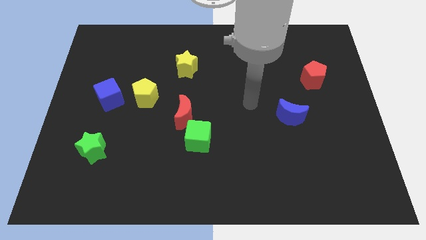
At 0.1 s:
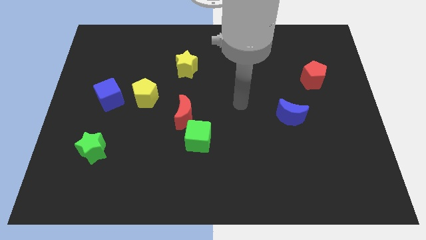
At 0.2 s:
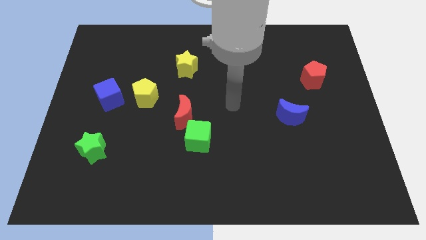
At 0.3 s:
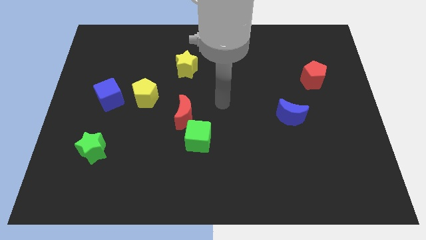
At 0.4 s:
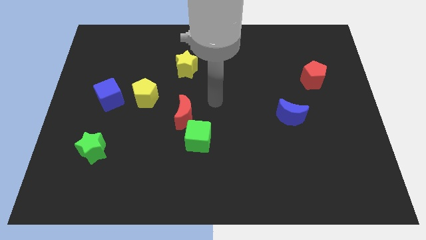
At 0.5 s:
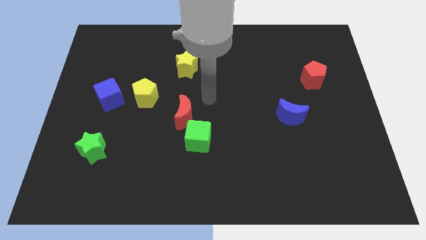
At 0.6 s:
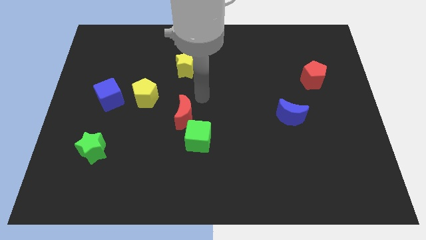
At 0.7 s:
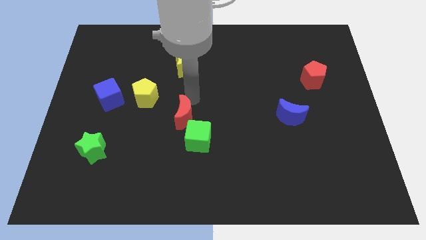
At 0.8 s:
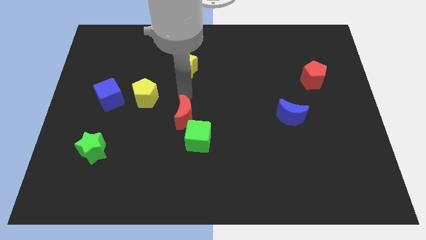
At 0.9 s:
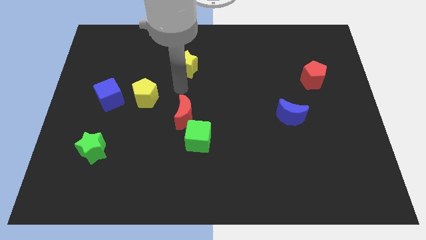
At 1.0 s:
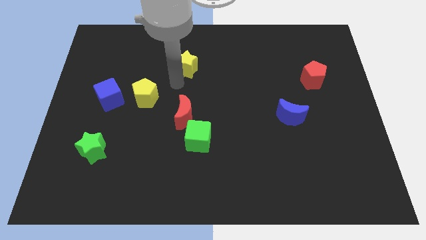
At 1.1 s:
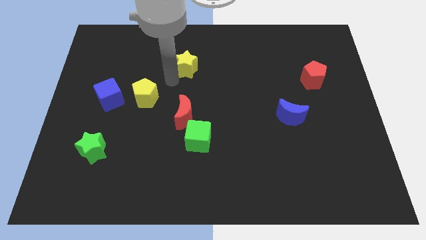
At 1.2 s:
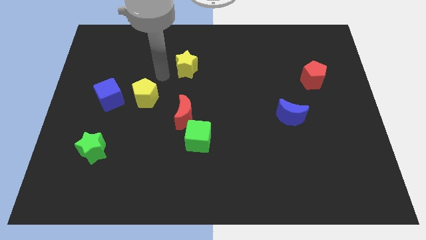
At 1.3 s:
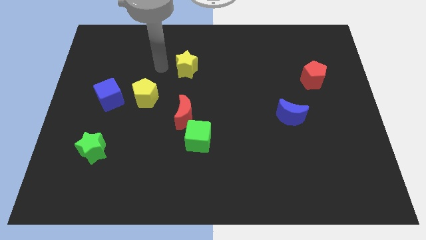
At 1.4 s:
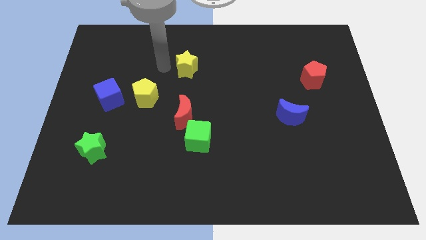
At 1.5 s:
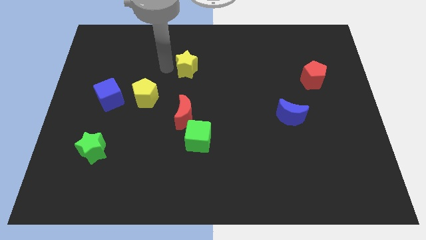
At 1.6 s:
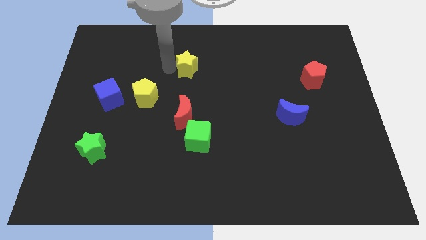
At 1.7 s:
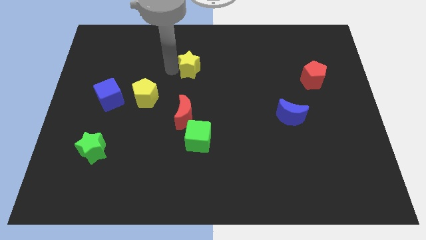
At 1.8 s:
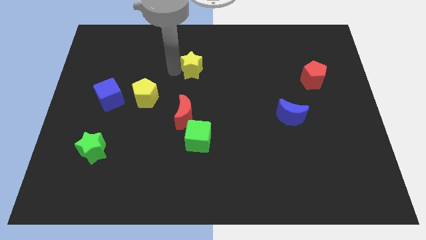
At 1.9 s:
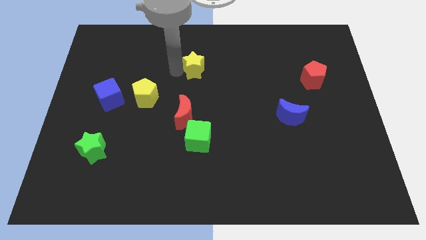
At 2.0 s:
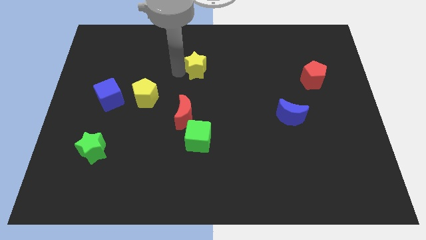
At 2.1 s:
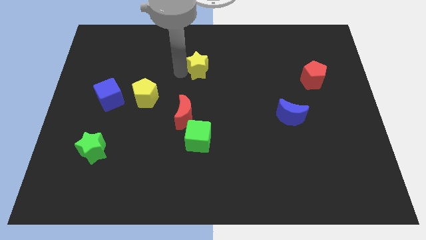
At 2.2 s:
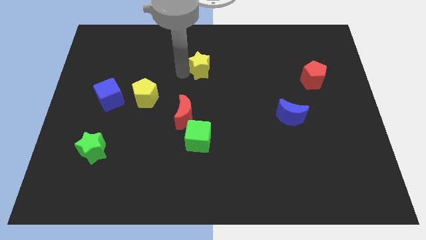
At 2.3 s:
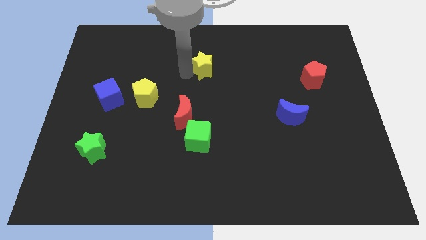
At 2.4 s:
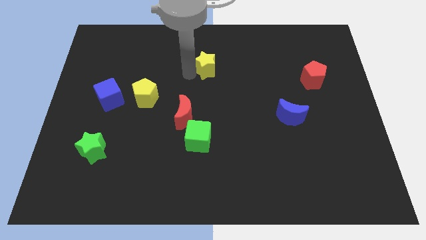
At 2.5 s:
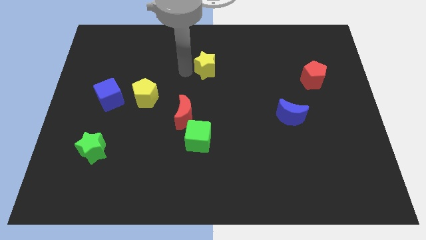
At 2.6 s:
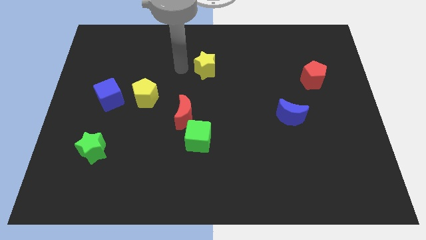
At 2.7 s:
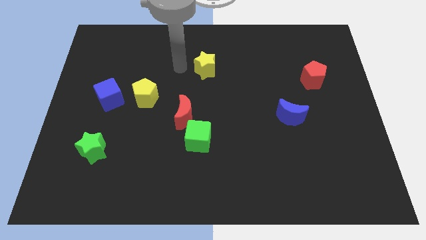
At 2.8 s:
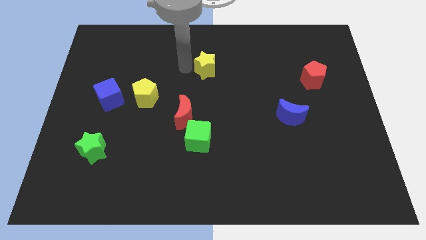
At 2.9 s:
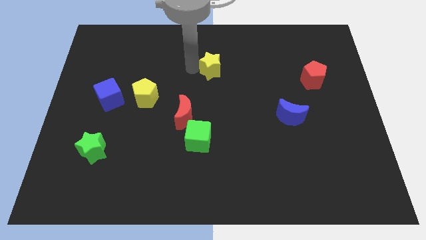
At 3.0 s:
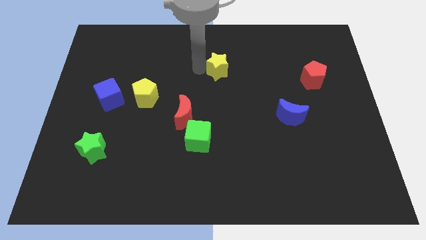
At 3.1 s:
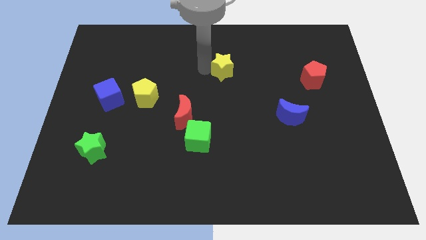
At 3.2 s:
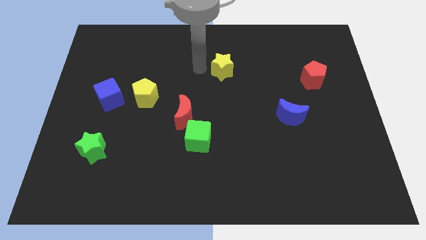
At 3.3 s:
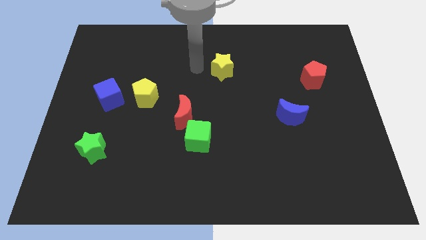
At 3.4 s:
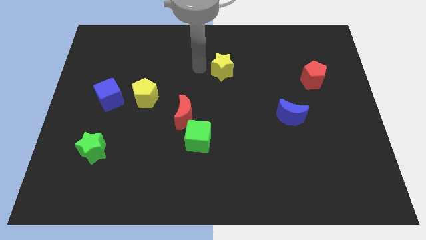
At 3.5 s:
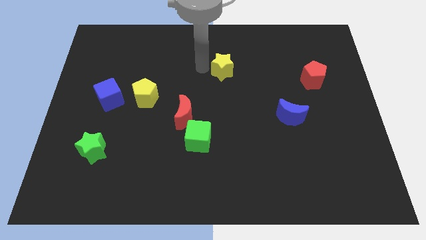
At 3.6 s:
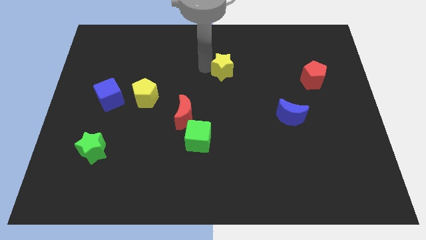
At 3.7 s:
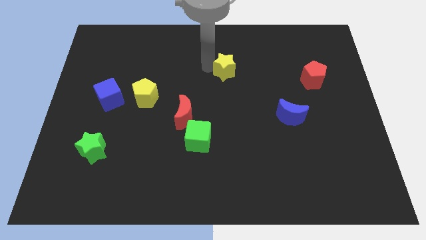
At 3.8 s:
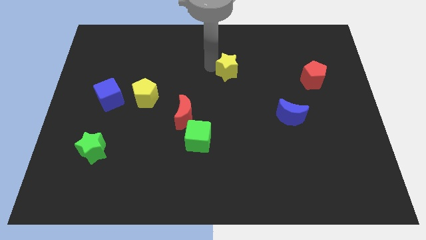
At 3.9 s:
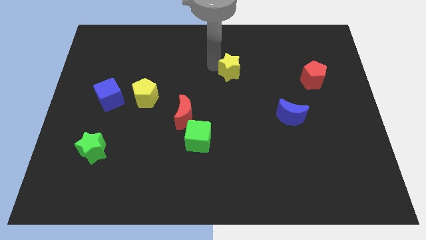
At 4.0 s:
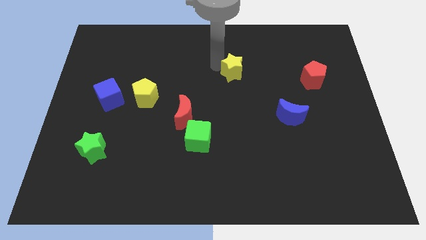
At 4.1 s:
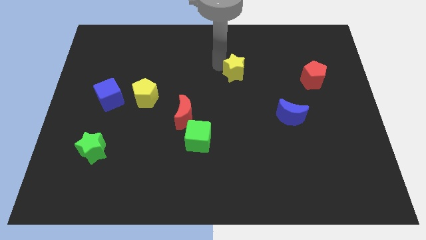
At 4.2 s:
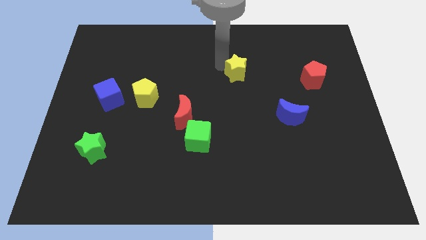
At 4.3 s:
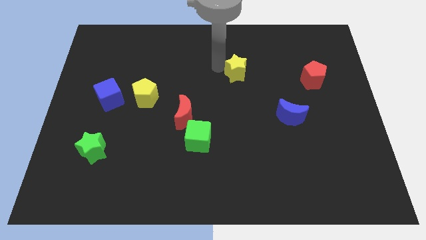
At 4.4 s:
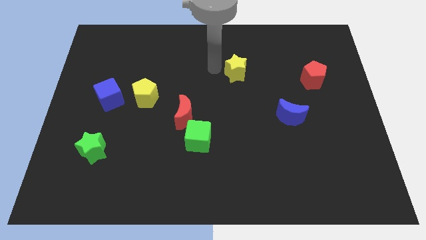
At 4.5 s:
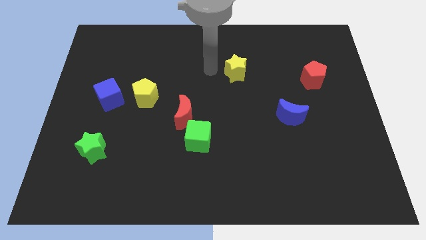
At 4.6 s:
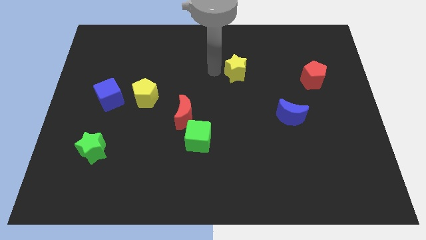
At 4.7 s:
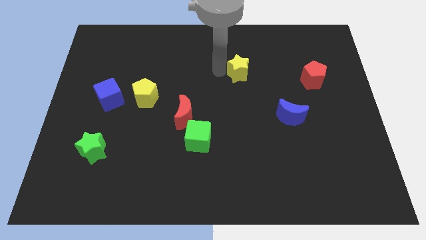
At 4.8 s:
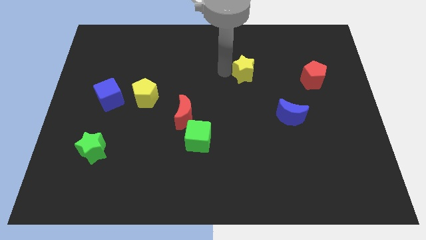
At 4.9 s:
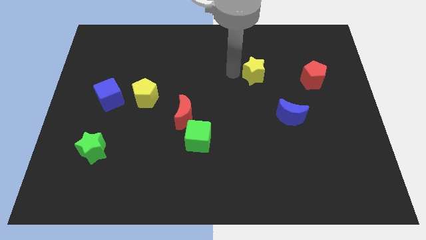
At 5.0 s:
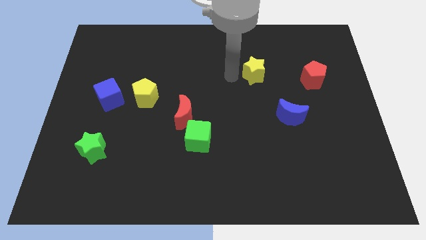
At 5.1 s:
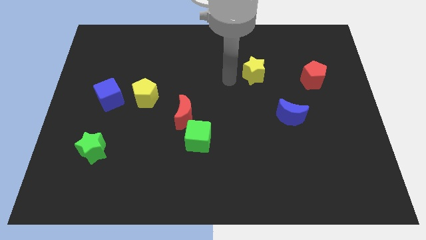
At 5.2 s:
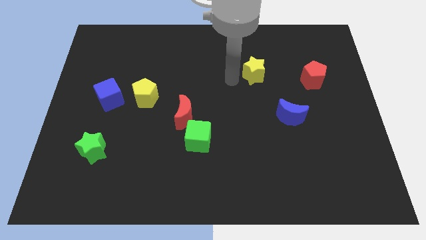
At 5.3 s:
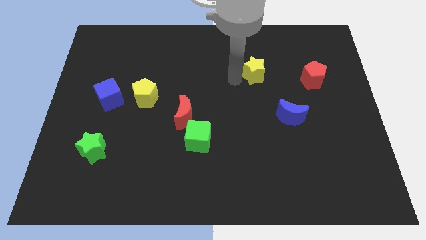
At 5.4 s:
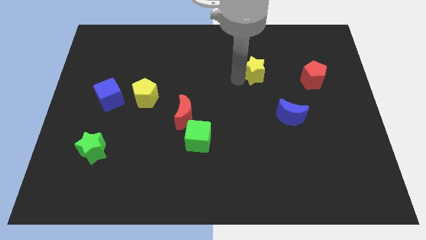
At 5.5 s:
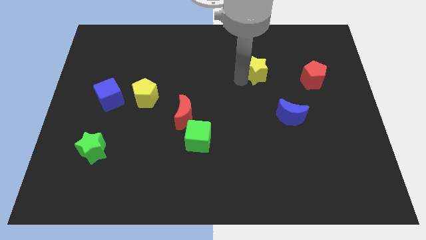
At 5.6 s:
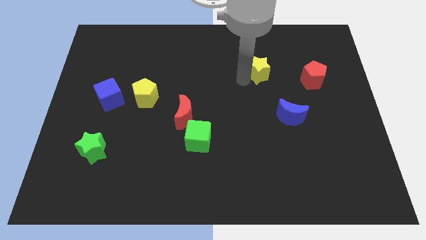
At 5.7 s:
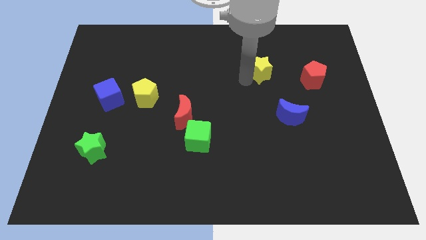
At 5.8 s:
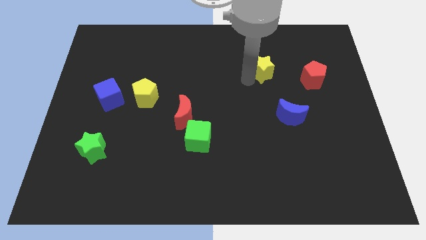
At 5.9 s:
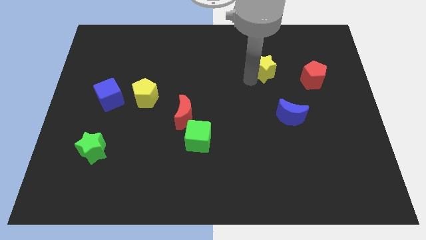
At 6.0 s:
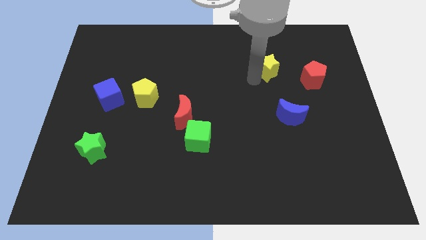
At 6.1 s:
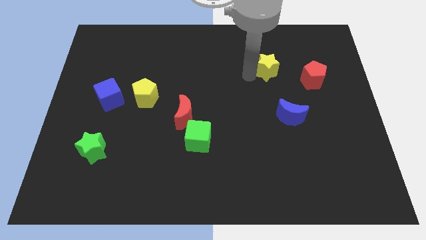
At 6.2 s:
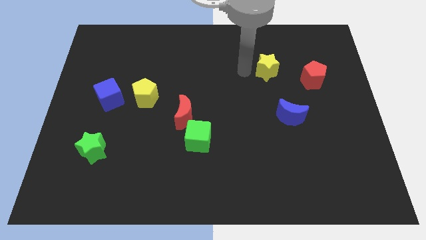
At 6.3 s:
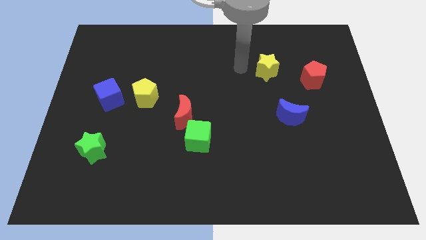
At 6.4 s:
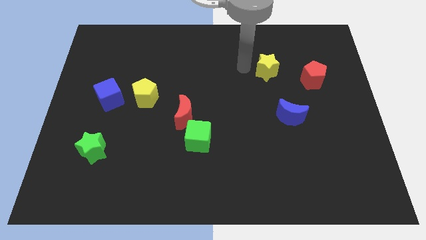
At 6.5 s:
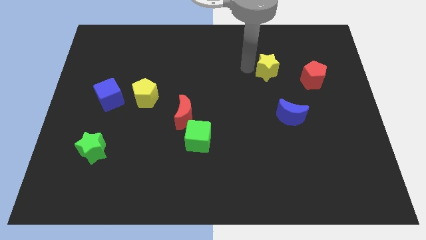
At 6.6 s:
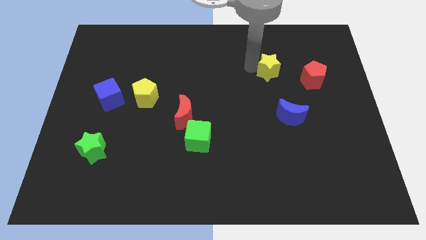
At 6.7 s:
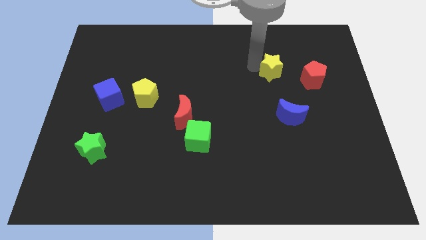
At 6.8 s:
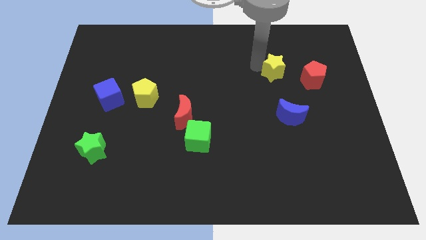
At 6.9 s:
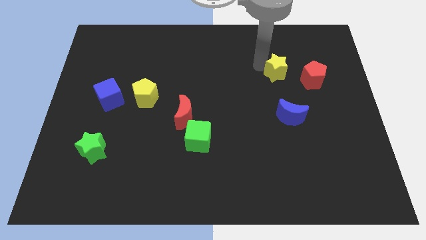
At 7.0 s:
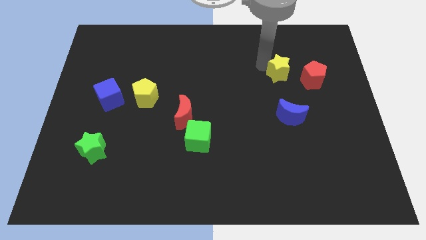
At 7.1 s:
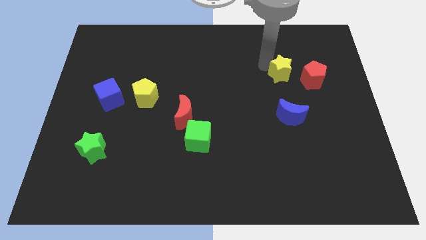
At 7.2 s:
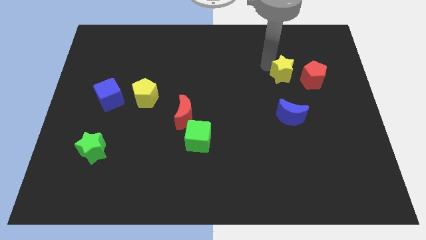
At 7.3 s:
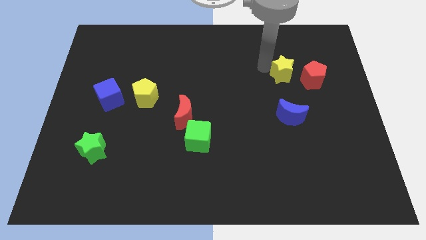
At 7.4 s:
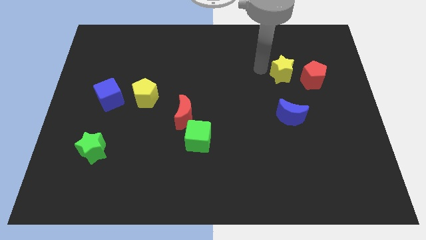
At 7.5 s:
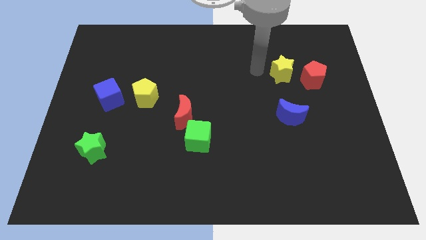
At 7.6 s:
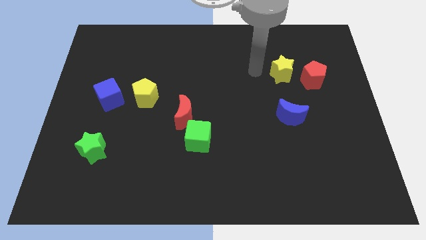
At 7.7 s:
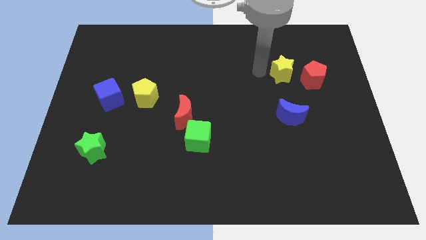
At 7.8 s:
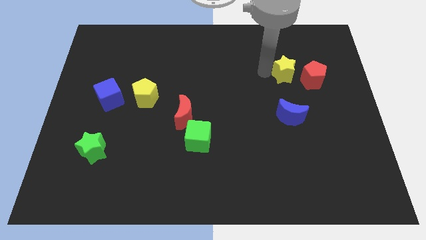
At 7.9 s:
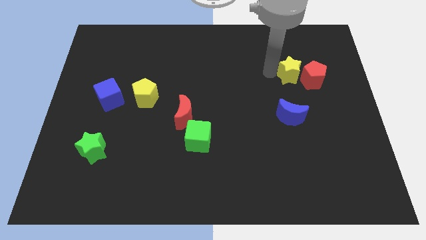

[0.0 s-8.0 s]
slide the yellow star close to the red pentagon

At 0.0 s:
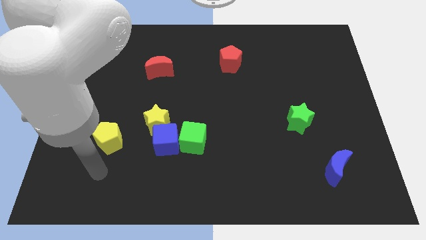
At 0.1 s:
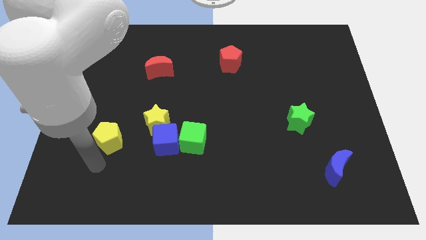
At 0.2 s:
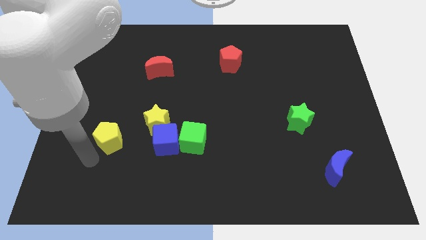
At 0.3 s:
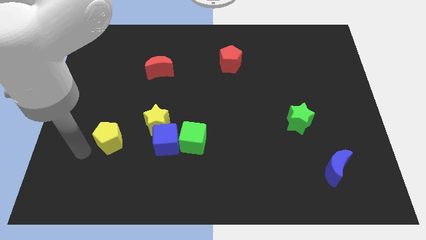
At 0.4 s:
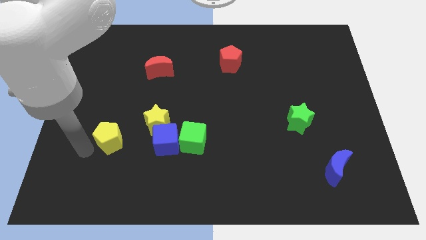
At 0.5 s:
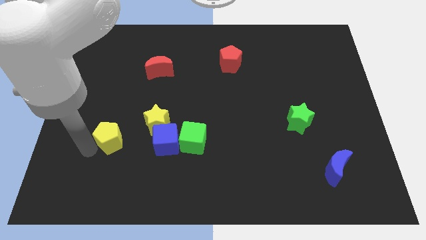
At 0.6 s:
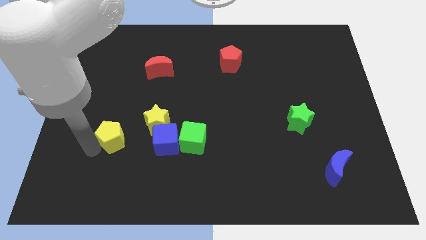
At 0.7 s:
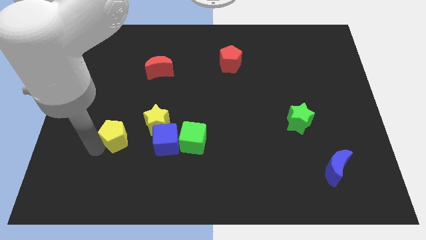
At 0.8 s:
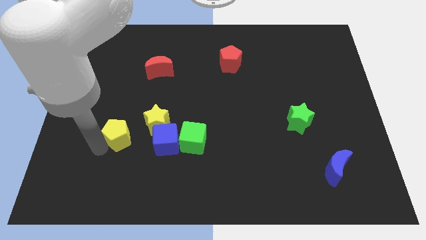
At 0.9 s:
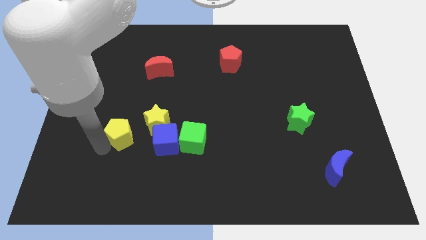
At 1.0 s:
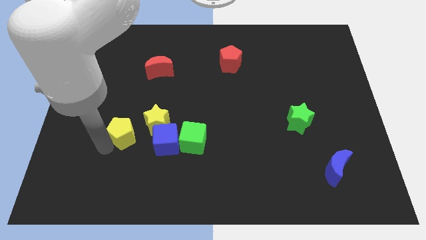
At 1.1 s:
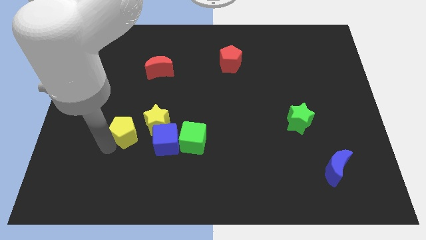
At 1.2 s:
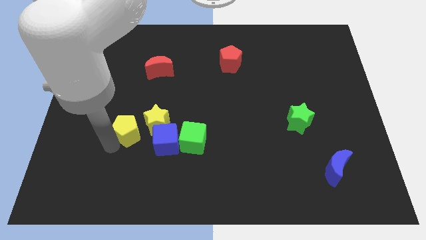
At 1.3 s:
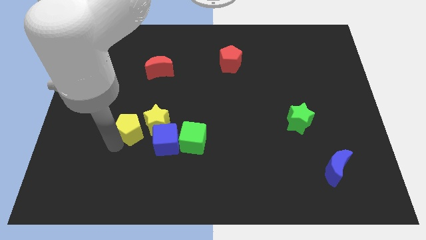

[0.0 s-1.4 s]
slide the yellow pentagon to the yellow star
